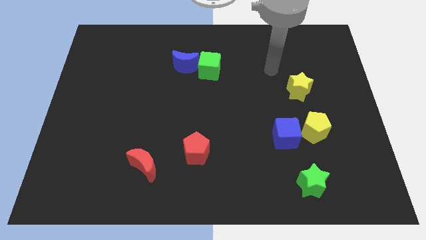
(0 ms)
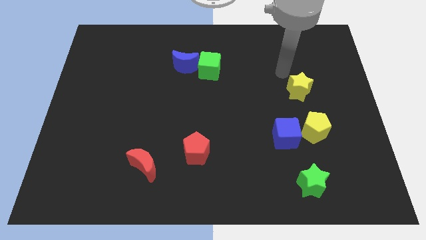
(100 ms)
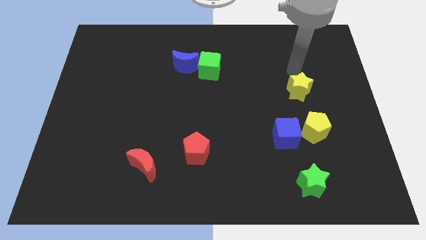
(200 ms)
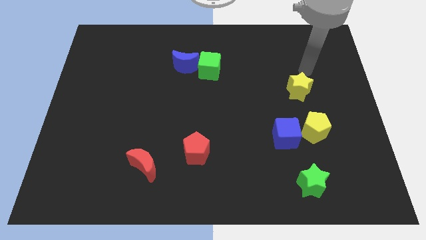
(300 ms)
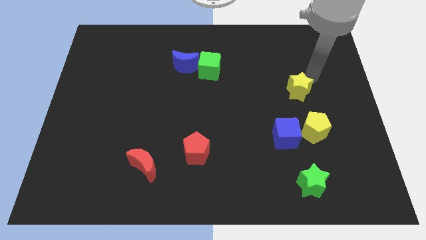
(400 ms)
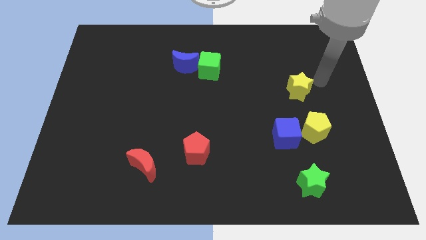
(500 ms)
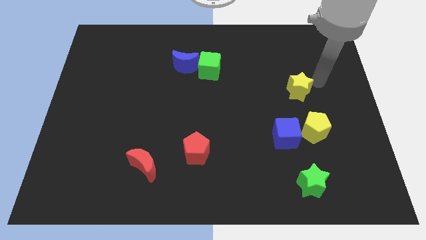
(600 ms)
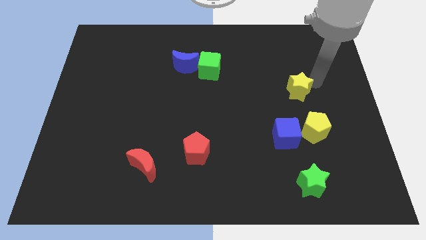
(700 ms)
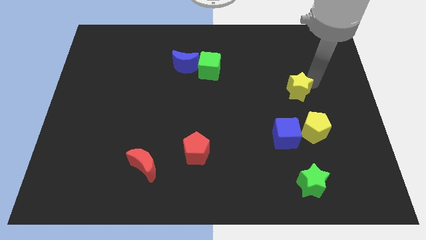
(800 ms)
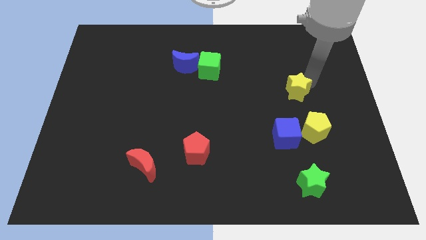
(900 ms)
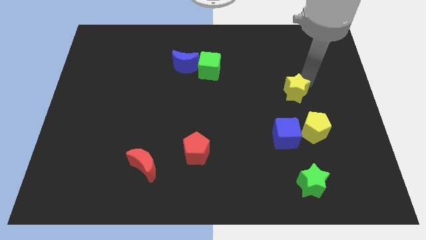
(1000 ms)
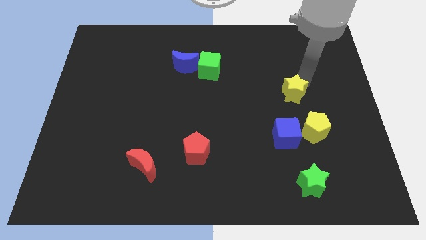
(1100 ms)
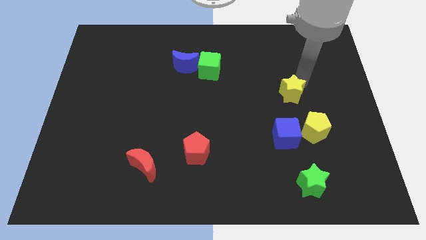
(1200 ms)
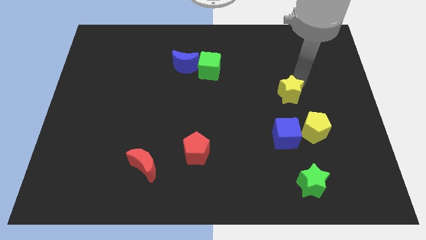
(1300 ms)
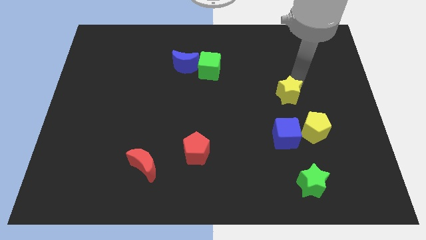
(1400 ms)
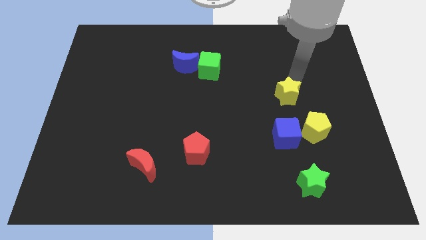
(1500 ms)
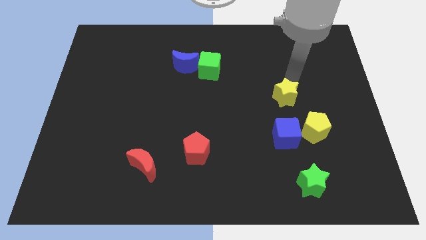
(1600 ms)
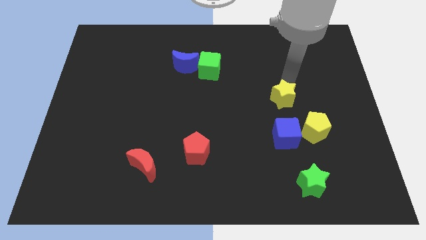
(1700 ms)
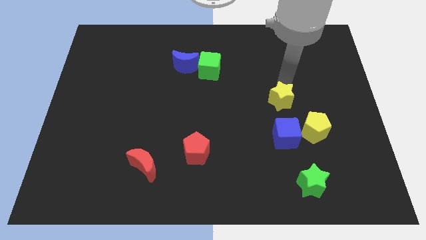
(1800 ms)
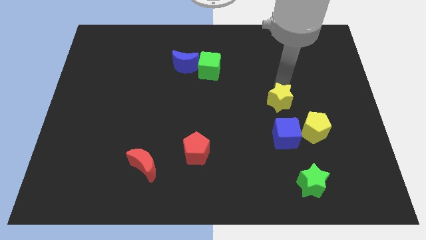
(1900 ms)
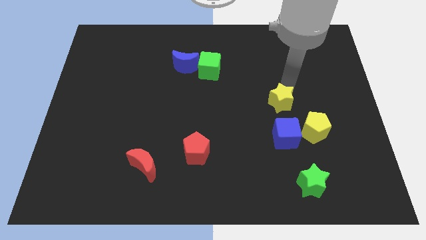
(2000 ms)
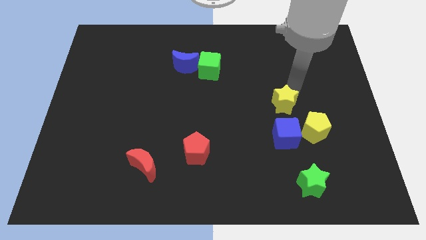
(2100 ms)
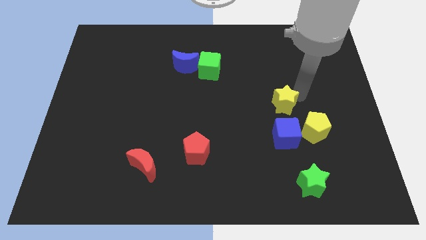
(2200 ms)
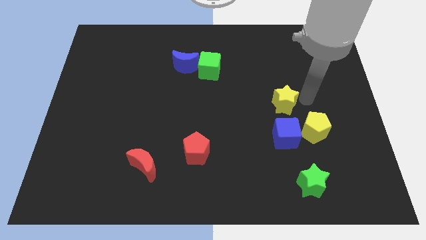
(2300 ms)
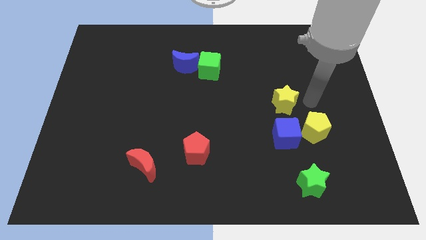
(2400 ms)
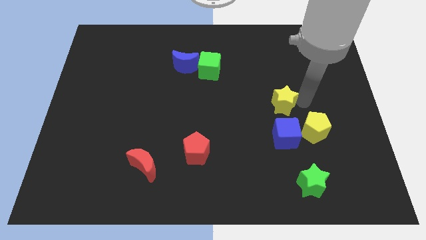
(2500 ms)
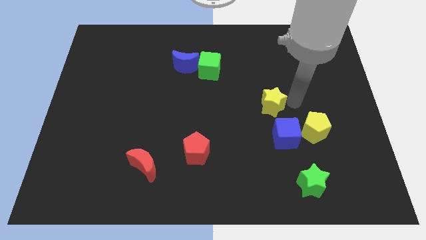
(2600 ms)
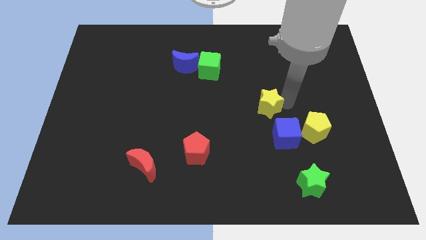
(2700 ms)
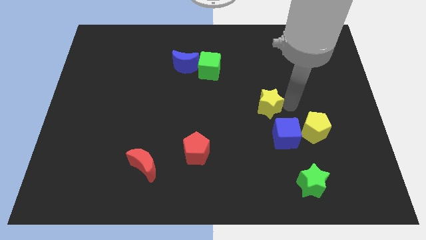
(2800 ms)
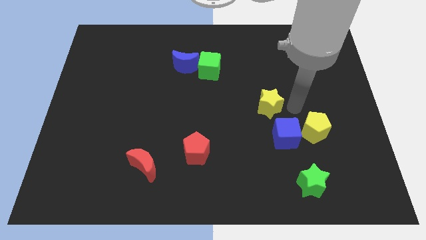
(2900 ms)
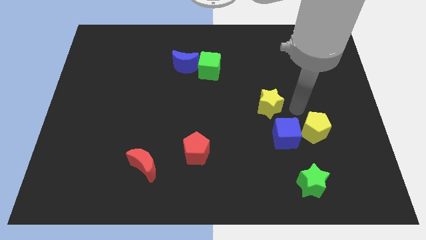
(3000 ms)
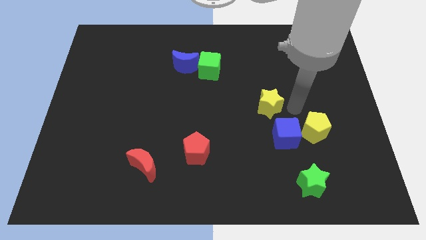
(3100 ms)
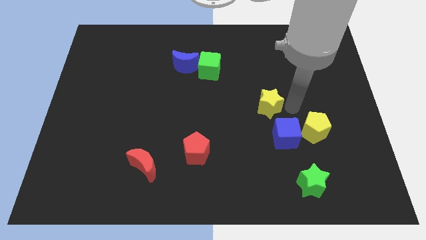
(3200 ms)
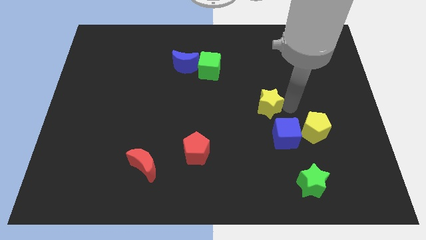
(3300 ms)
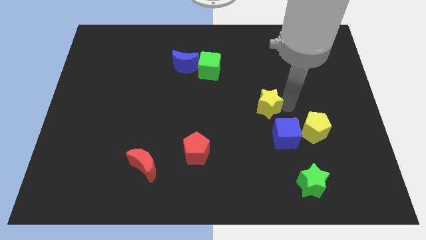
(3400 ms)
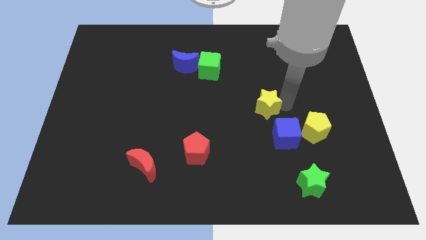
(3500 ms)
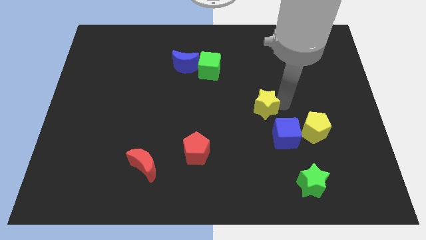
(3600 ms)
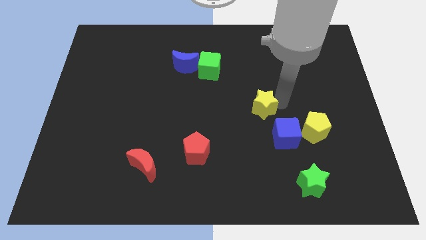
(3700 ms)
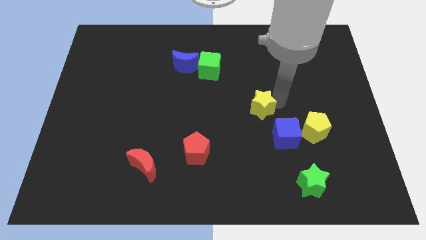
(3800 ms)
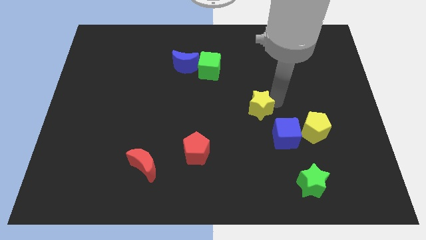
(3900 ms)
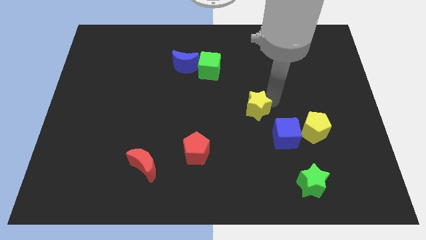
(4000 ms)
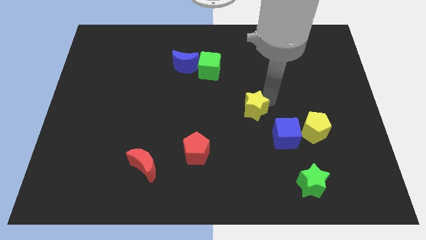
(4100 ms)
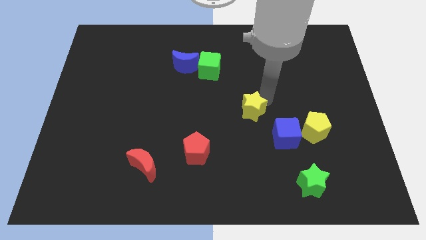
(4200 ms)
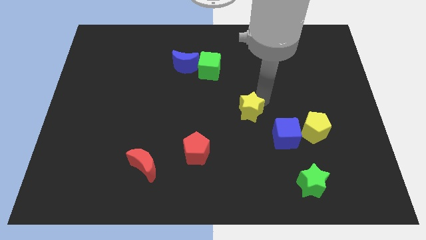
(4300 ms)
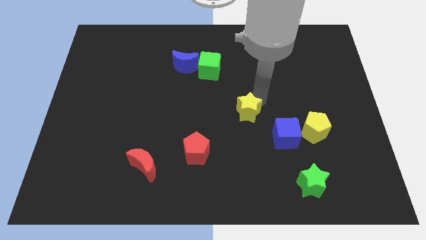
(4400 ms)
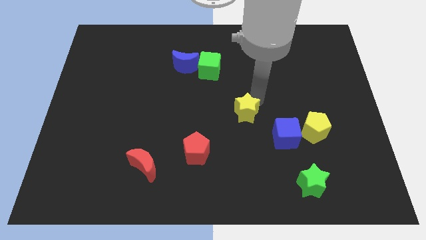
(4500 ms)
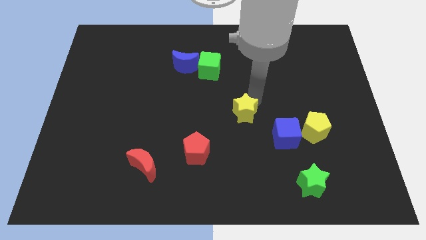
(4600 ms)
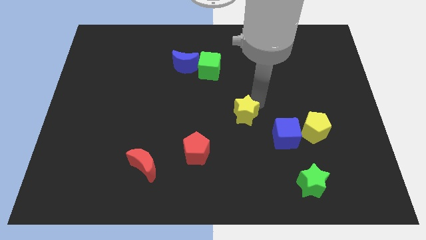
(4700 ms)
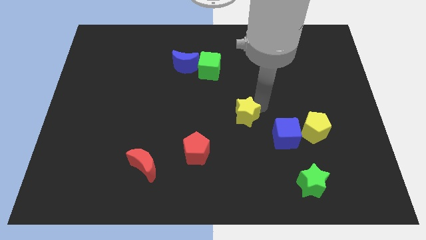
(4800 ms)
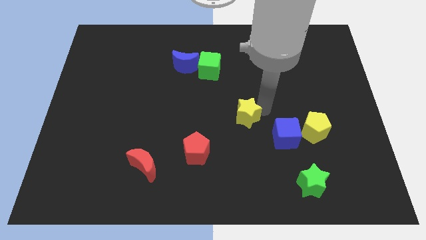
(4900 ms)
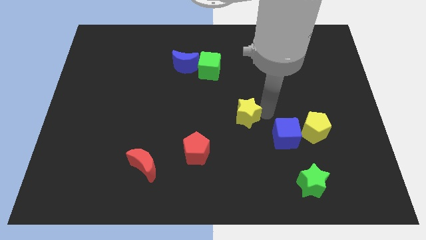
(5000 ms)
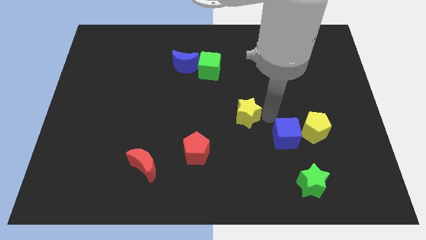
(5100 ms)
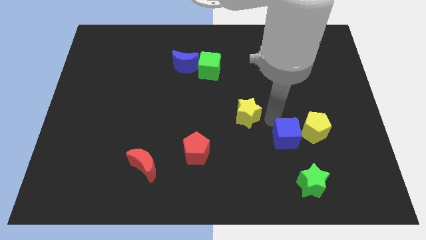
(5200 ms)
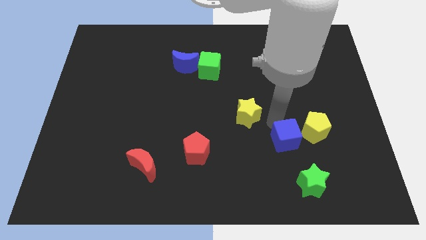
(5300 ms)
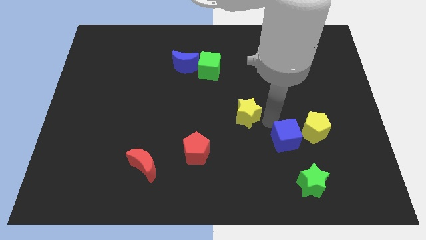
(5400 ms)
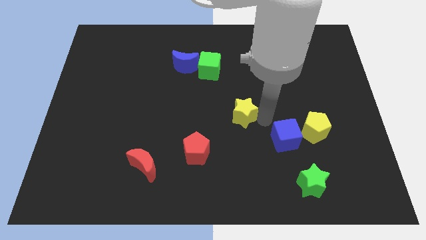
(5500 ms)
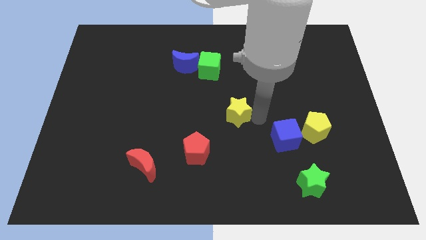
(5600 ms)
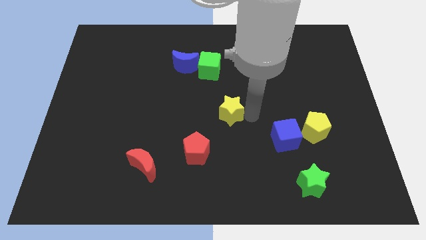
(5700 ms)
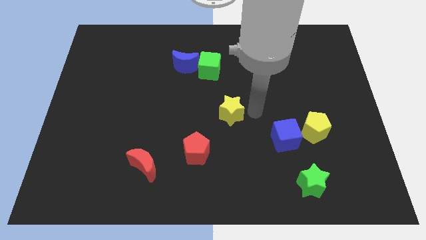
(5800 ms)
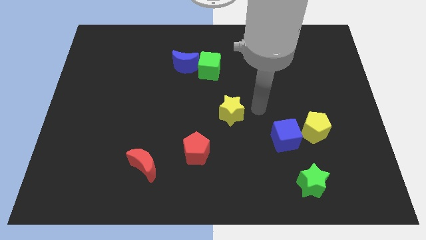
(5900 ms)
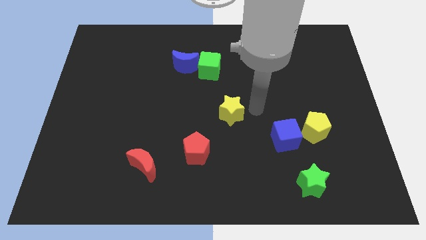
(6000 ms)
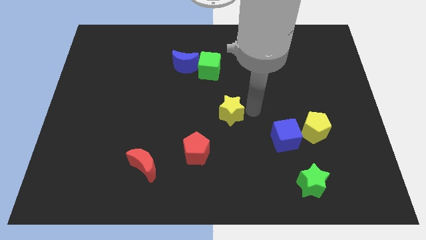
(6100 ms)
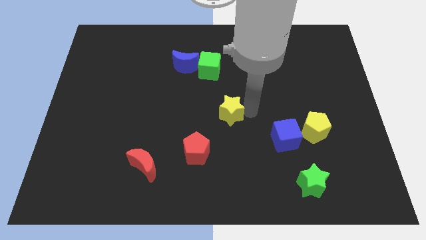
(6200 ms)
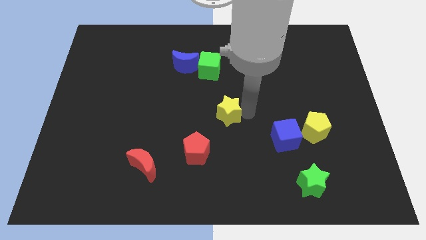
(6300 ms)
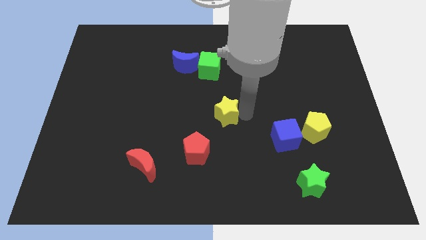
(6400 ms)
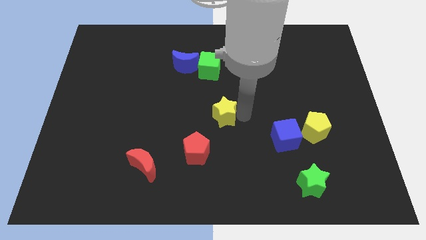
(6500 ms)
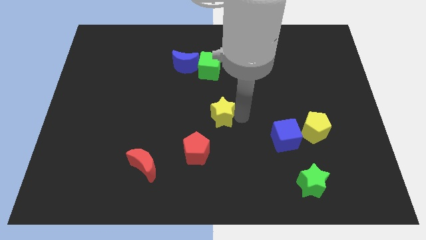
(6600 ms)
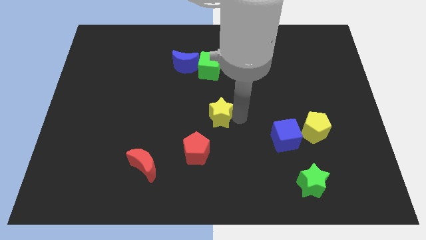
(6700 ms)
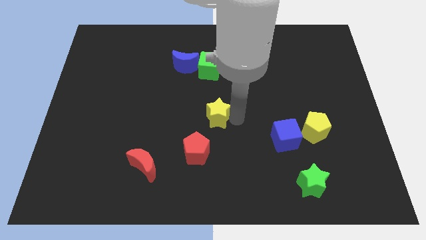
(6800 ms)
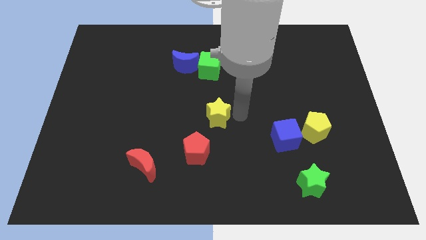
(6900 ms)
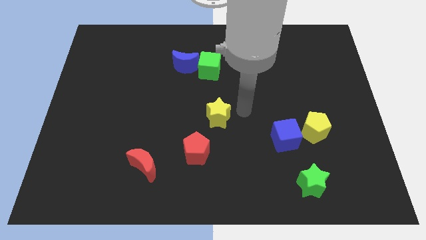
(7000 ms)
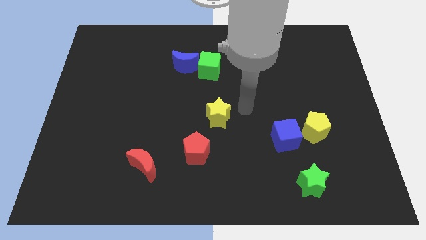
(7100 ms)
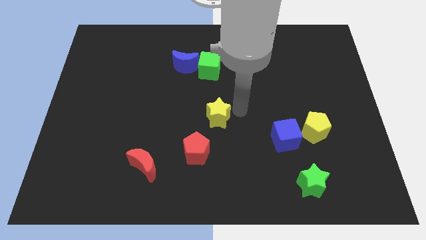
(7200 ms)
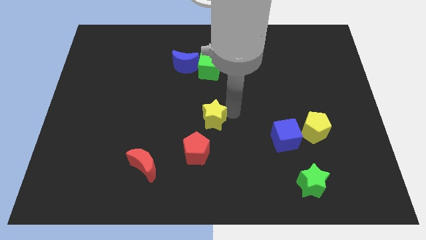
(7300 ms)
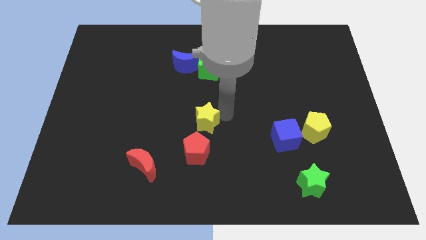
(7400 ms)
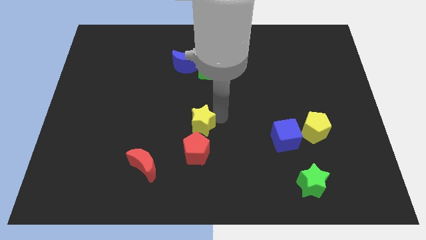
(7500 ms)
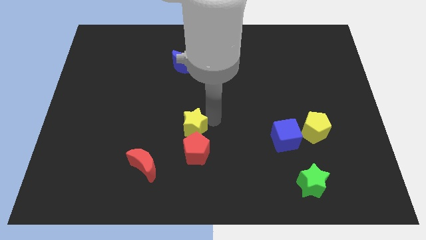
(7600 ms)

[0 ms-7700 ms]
put the yellow star to the top left side of the red pentagon
